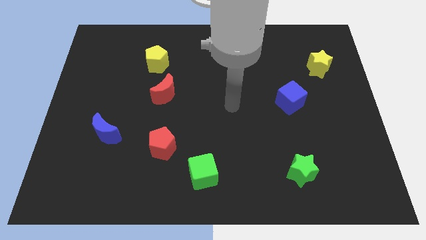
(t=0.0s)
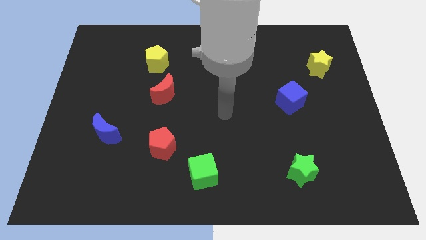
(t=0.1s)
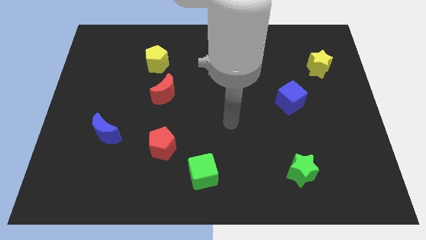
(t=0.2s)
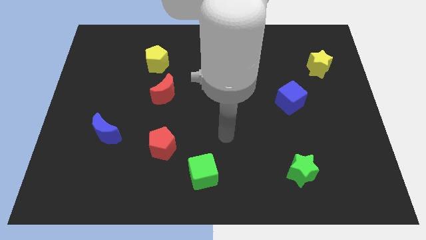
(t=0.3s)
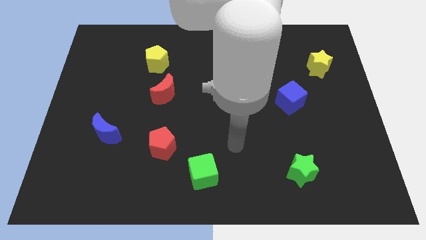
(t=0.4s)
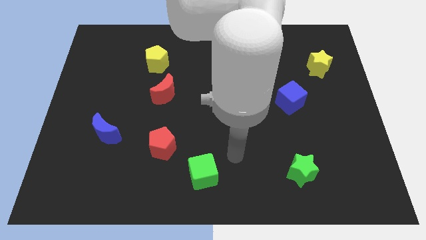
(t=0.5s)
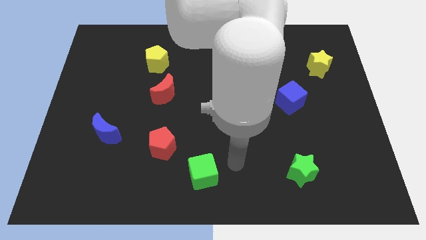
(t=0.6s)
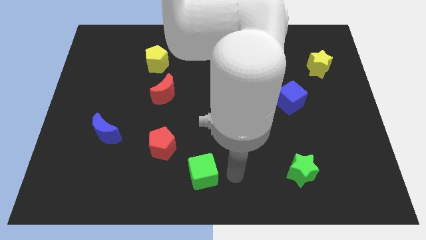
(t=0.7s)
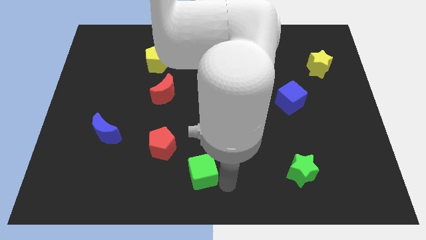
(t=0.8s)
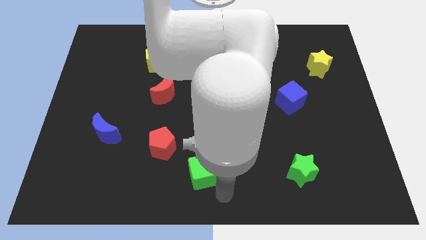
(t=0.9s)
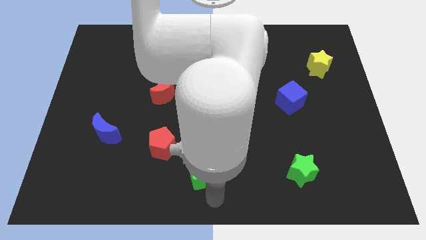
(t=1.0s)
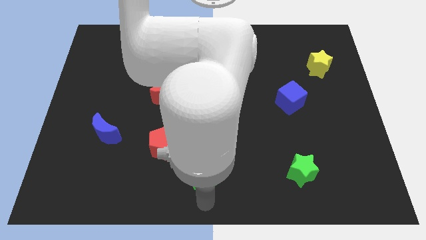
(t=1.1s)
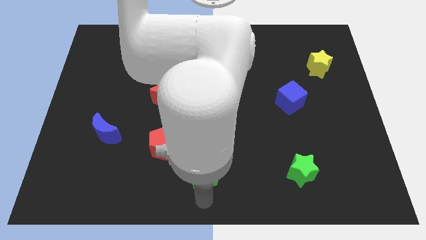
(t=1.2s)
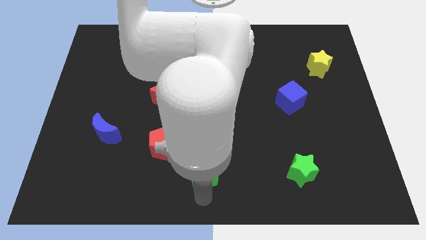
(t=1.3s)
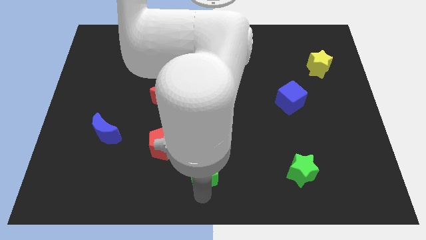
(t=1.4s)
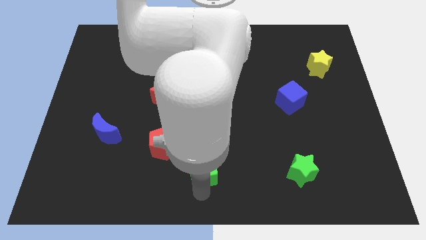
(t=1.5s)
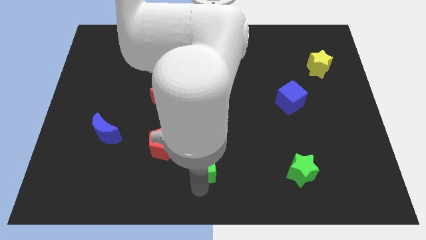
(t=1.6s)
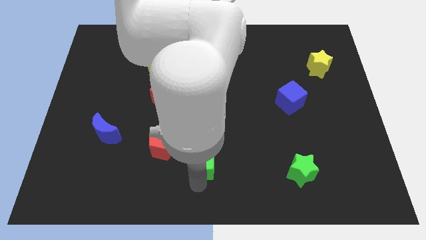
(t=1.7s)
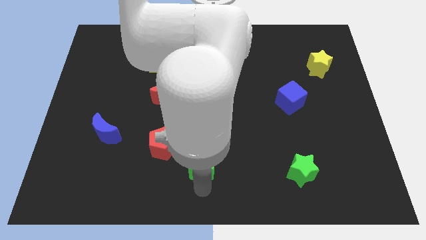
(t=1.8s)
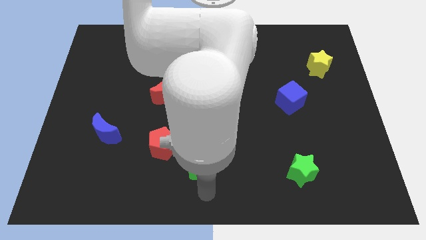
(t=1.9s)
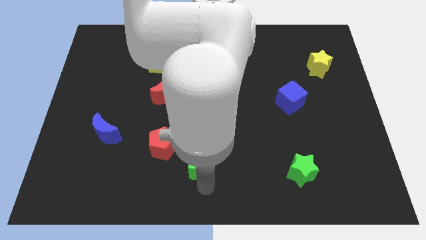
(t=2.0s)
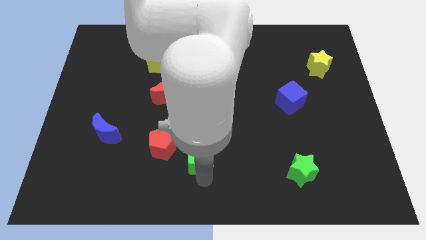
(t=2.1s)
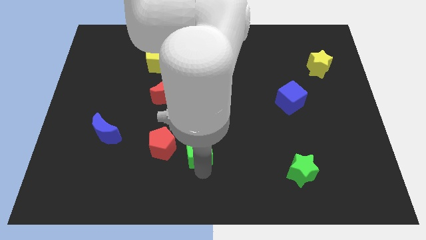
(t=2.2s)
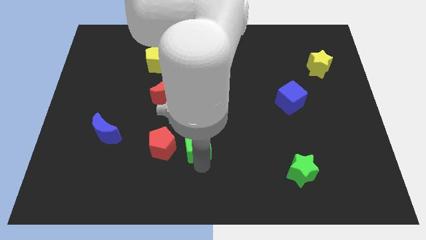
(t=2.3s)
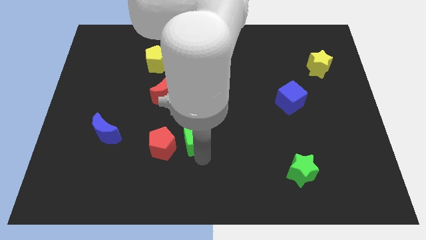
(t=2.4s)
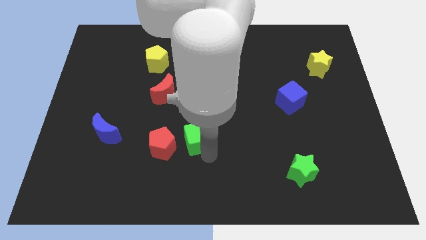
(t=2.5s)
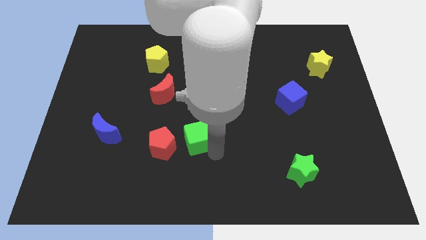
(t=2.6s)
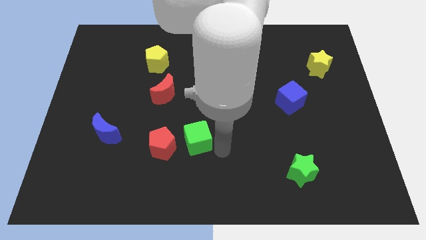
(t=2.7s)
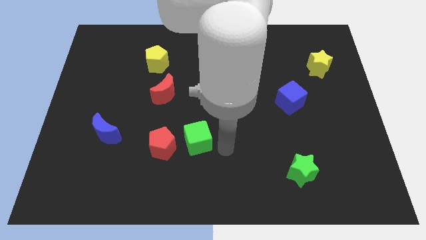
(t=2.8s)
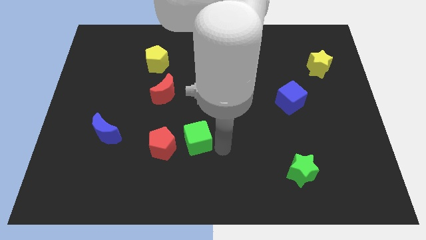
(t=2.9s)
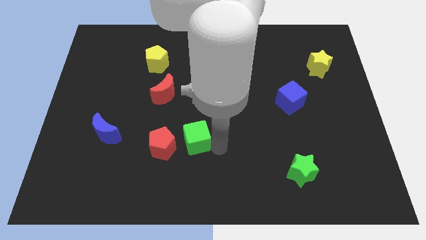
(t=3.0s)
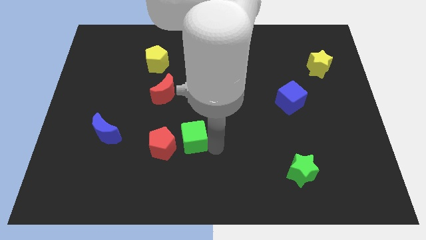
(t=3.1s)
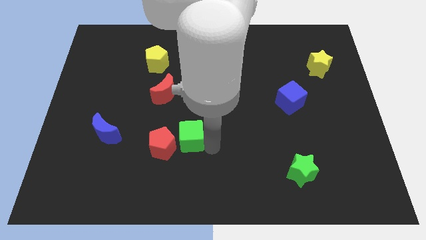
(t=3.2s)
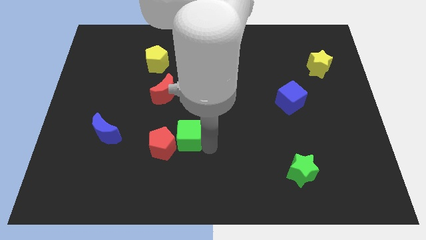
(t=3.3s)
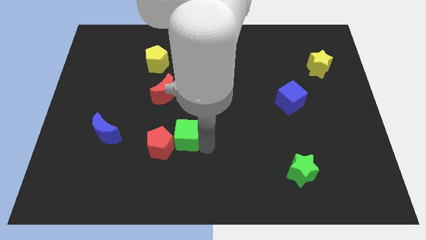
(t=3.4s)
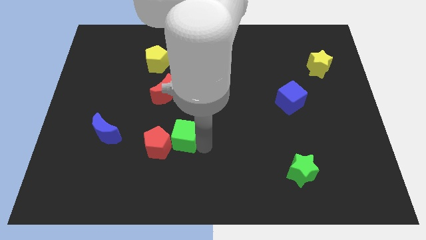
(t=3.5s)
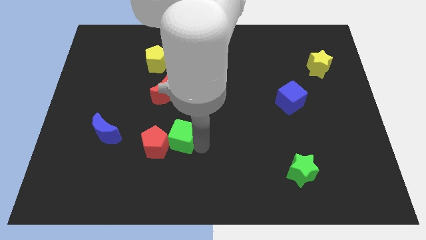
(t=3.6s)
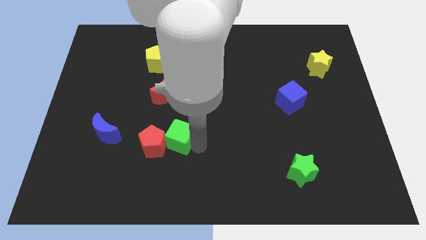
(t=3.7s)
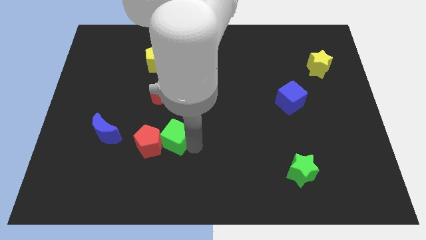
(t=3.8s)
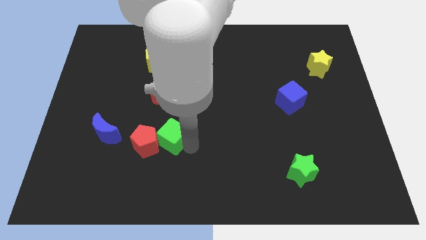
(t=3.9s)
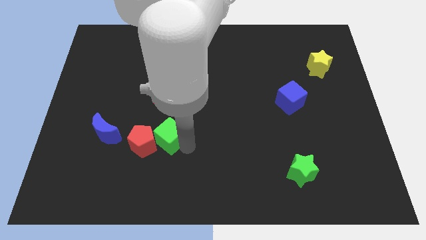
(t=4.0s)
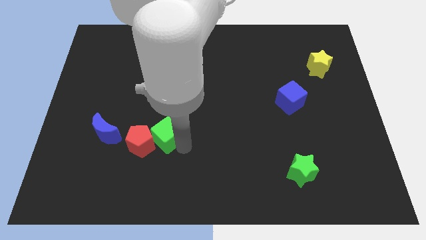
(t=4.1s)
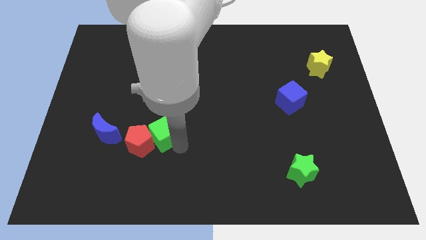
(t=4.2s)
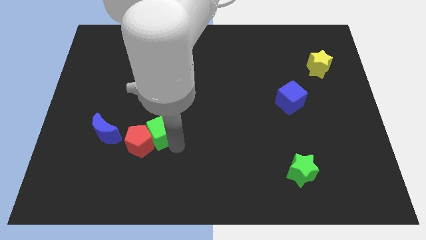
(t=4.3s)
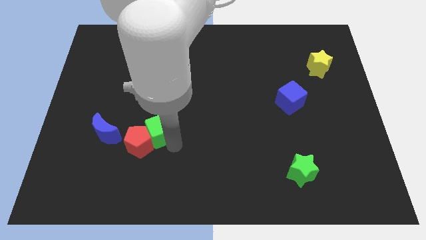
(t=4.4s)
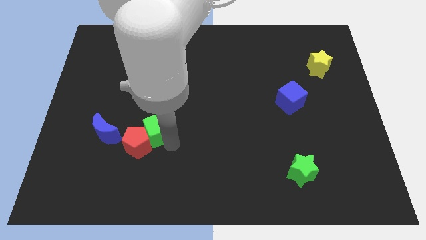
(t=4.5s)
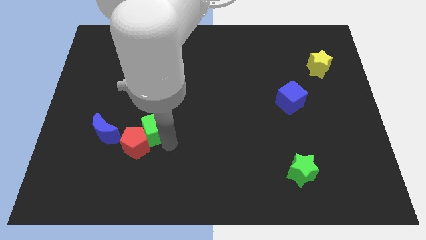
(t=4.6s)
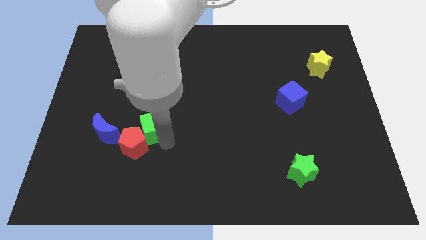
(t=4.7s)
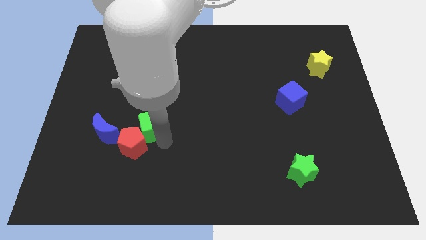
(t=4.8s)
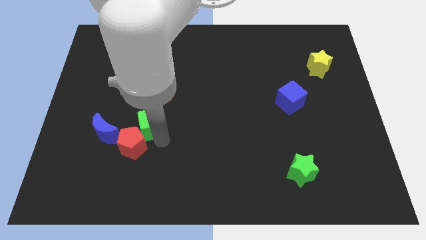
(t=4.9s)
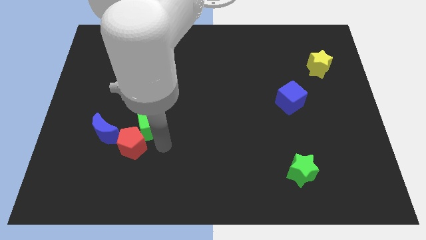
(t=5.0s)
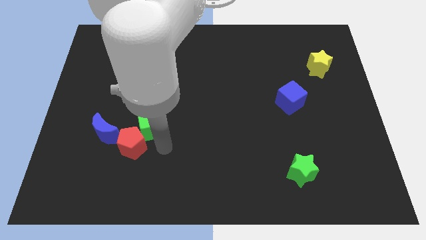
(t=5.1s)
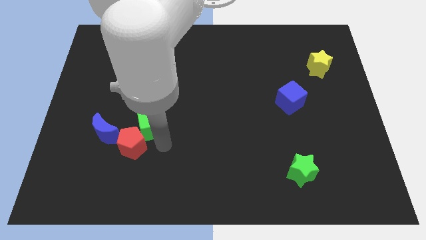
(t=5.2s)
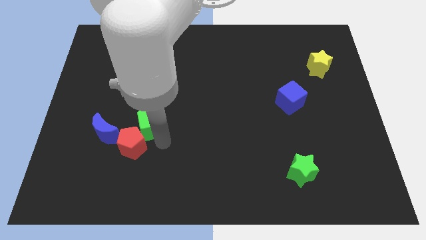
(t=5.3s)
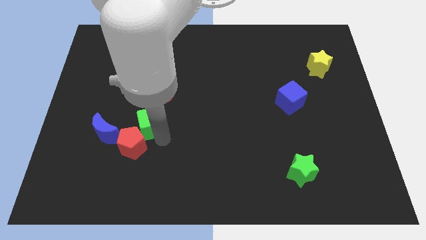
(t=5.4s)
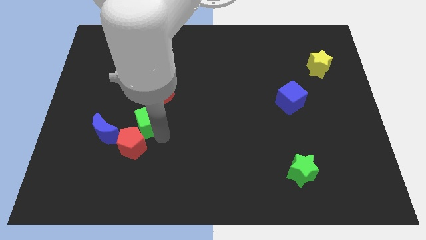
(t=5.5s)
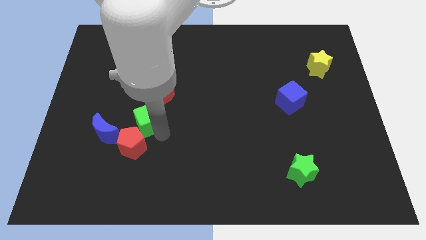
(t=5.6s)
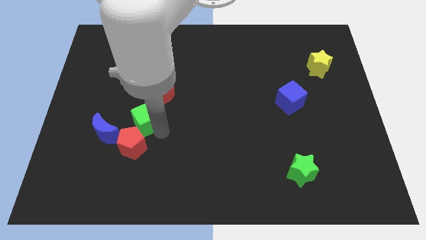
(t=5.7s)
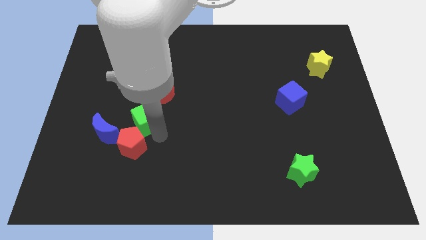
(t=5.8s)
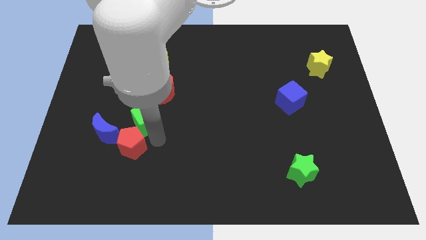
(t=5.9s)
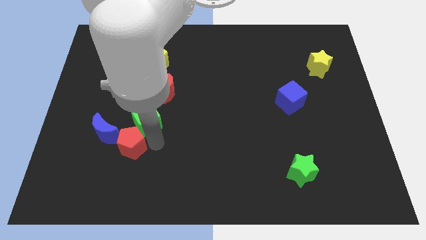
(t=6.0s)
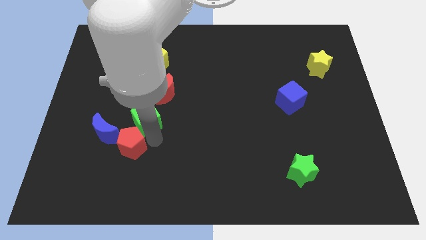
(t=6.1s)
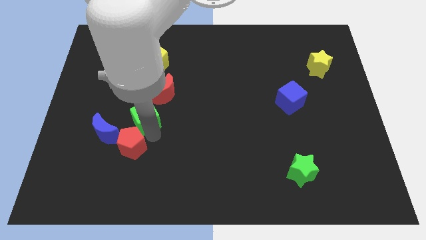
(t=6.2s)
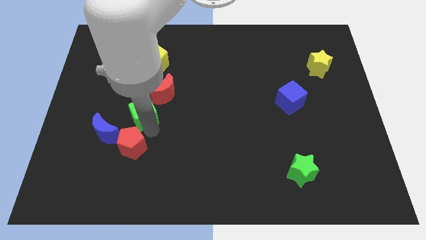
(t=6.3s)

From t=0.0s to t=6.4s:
slide the green cube upwards and then left

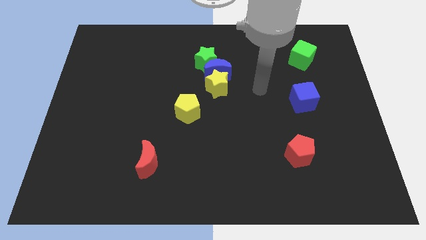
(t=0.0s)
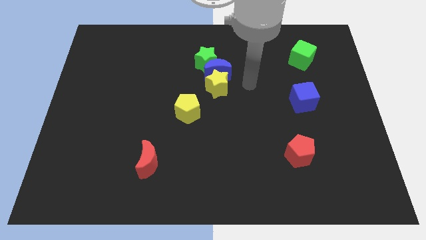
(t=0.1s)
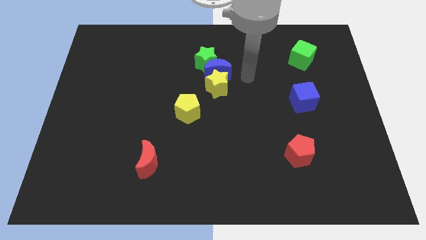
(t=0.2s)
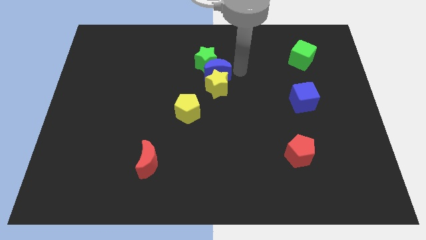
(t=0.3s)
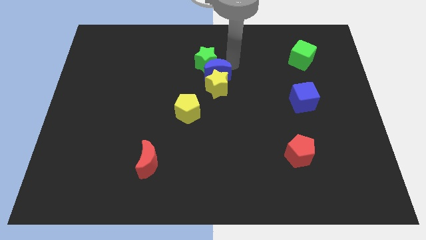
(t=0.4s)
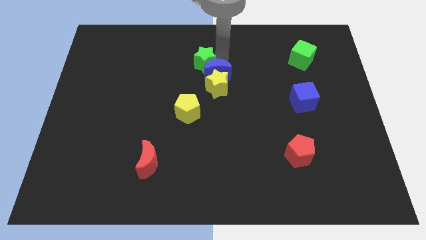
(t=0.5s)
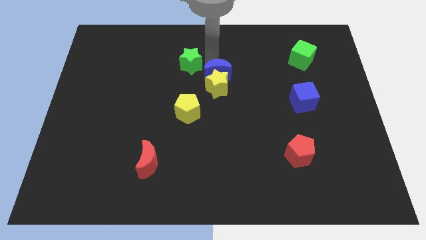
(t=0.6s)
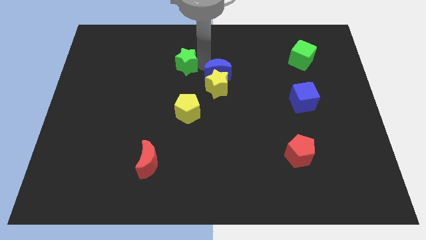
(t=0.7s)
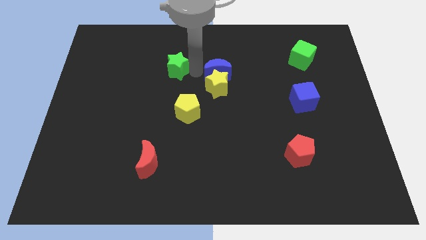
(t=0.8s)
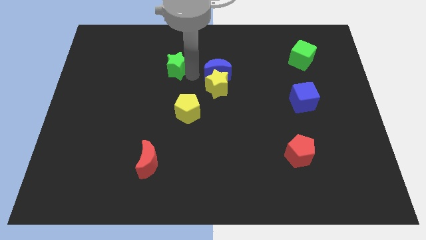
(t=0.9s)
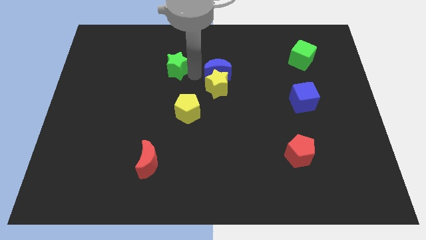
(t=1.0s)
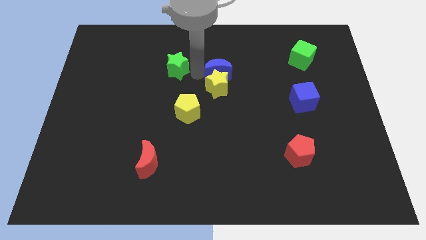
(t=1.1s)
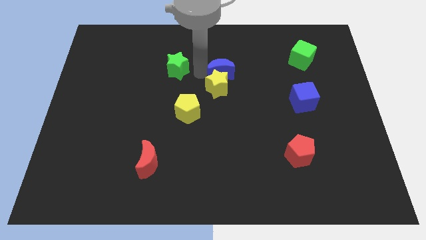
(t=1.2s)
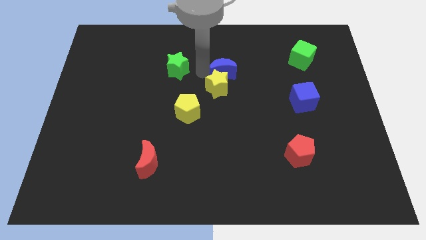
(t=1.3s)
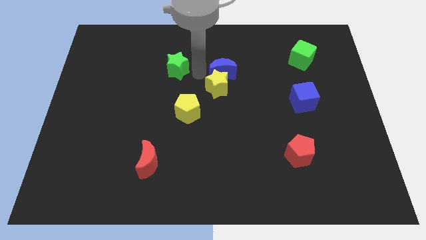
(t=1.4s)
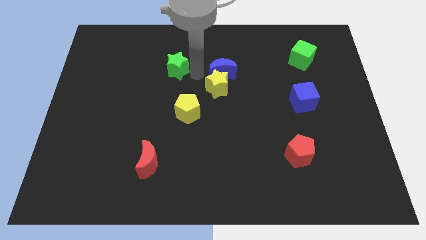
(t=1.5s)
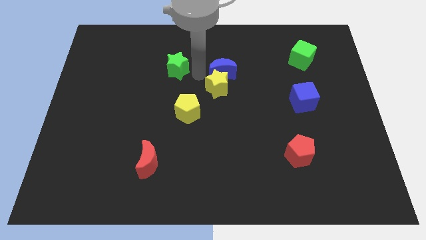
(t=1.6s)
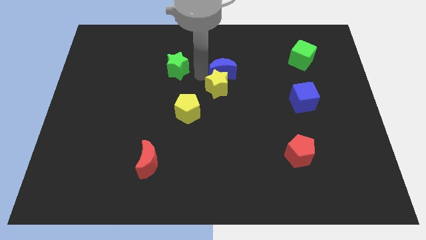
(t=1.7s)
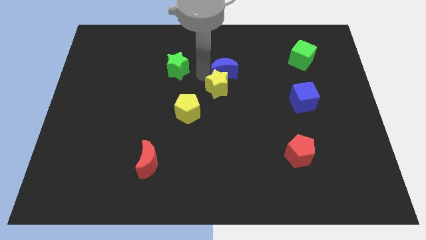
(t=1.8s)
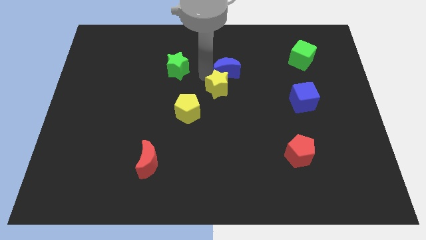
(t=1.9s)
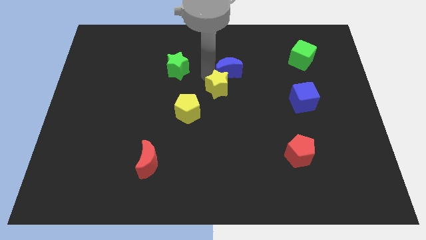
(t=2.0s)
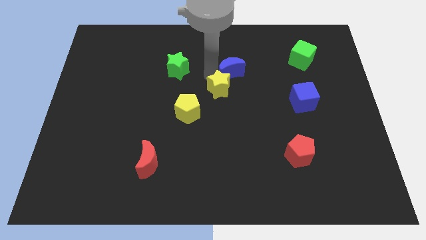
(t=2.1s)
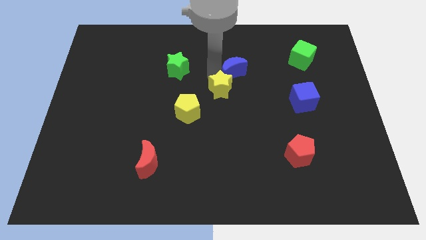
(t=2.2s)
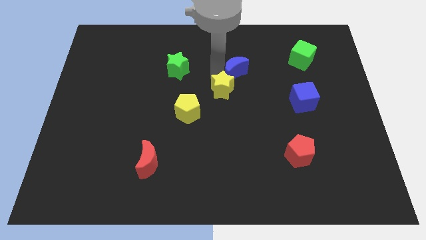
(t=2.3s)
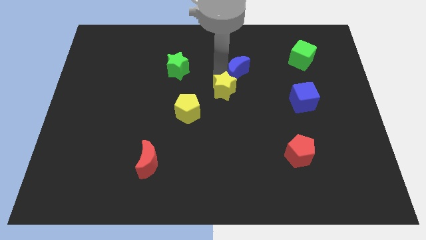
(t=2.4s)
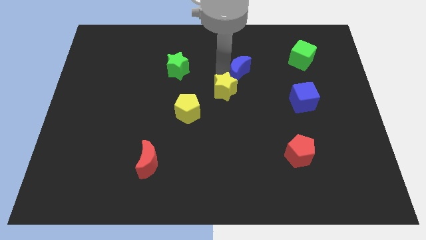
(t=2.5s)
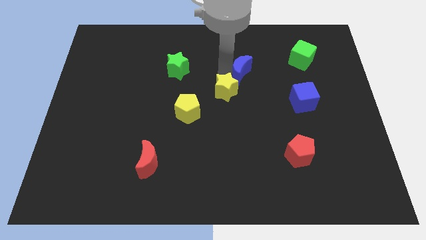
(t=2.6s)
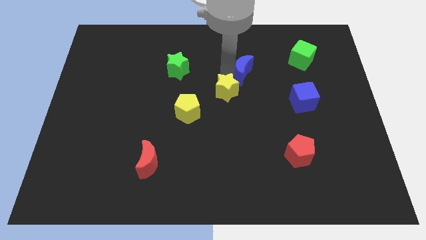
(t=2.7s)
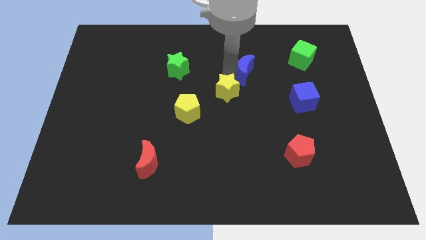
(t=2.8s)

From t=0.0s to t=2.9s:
slide the blue moon right slightly
